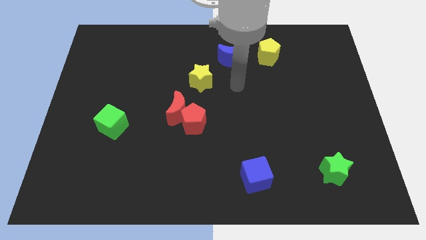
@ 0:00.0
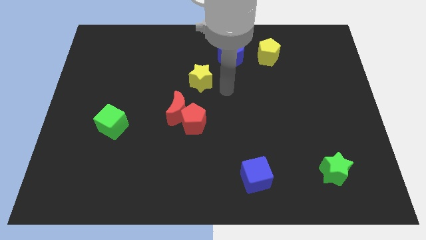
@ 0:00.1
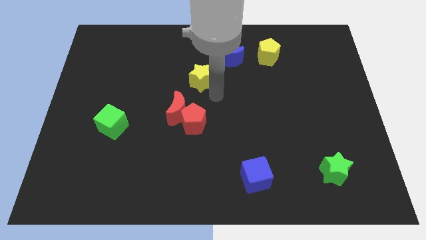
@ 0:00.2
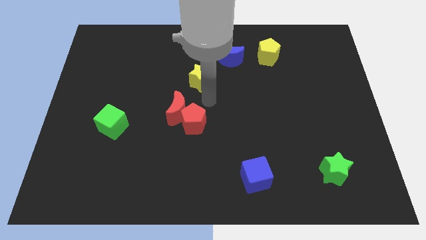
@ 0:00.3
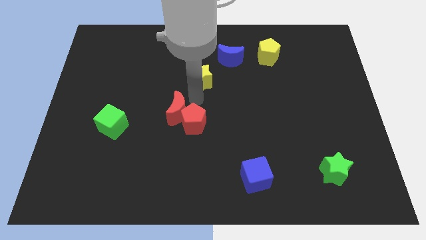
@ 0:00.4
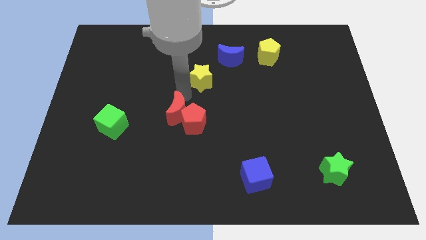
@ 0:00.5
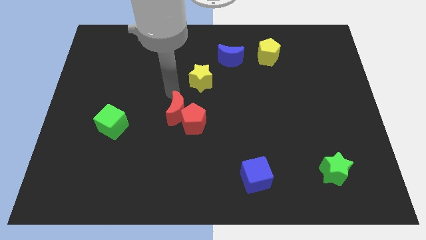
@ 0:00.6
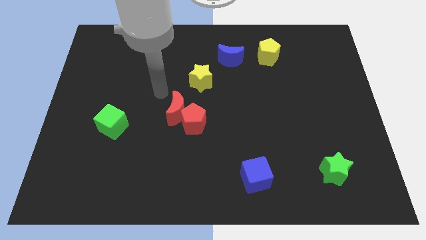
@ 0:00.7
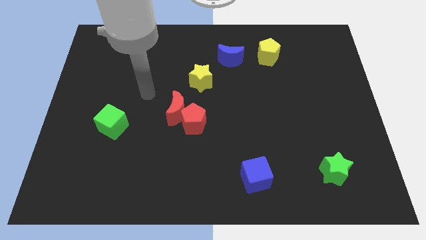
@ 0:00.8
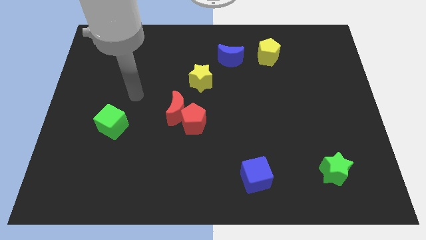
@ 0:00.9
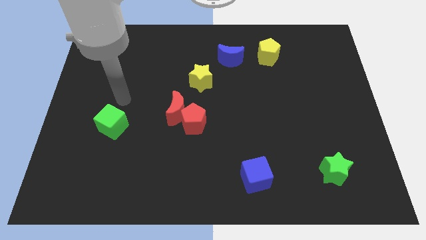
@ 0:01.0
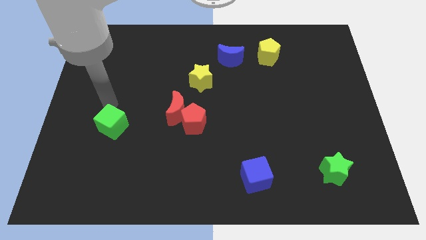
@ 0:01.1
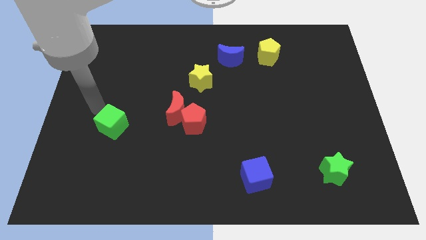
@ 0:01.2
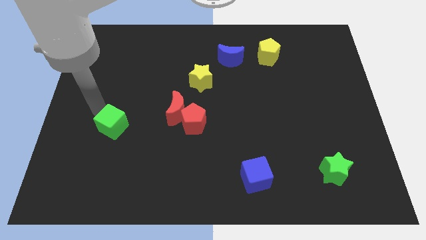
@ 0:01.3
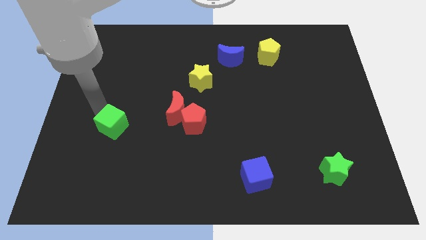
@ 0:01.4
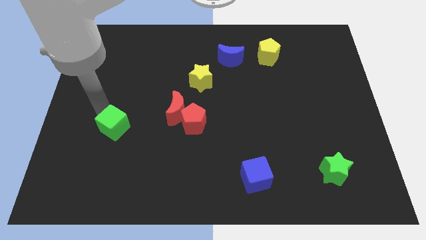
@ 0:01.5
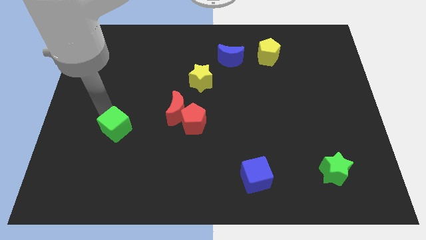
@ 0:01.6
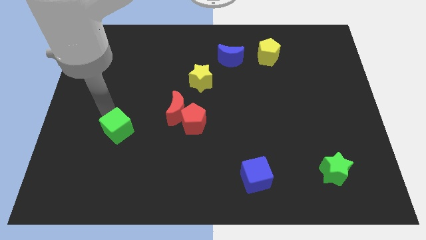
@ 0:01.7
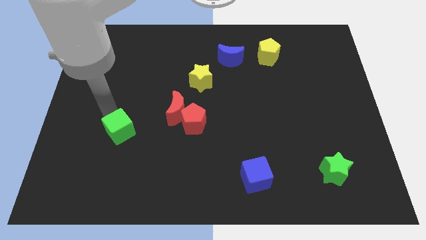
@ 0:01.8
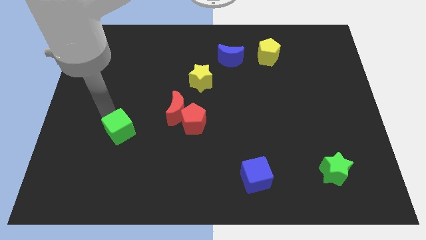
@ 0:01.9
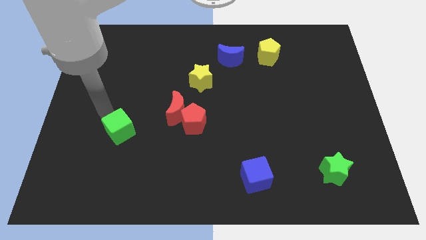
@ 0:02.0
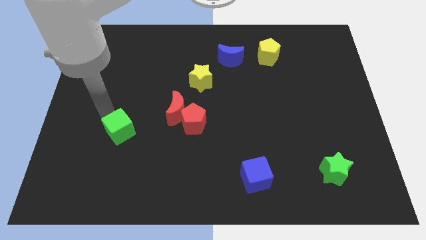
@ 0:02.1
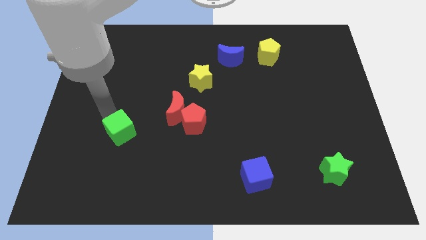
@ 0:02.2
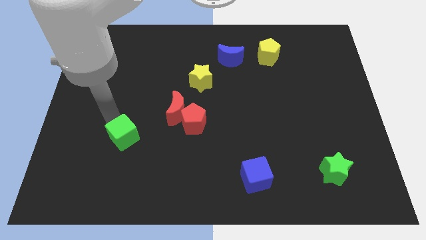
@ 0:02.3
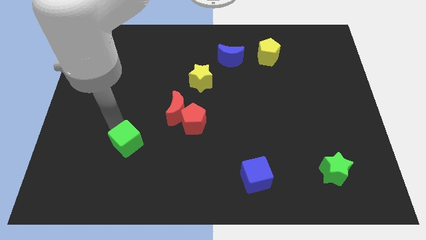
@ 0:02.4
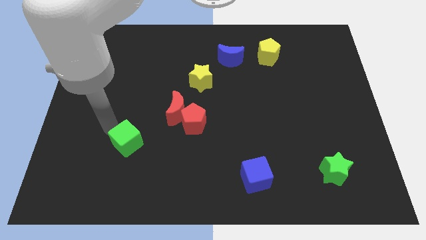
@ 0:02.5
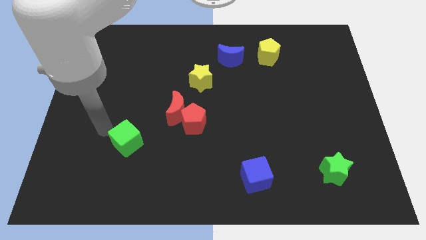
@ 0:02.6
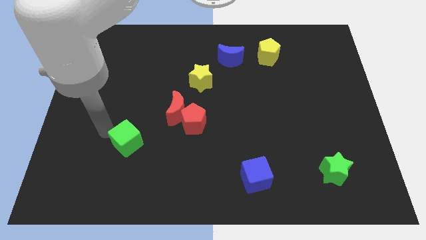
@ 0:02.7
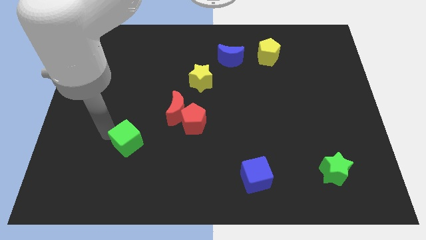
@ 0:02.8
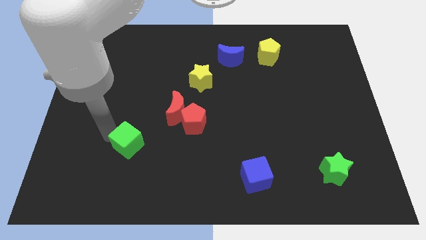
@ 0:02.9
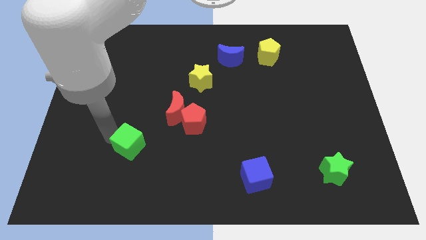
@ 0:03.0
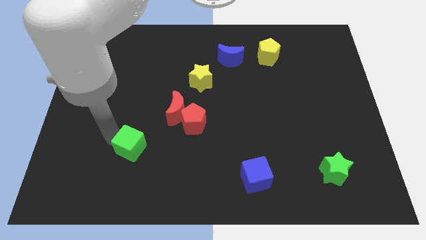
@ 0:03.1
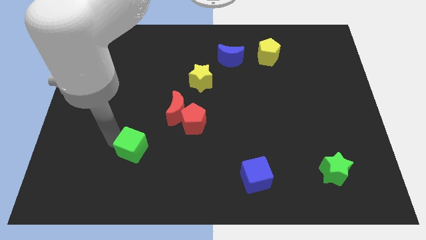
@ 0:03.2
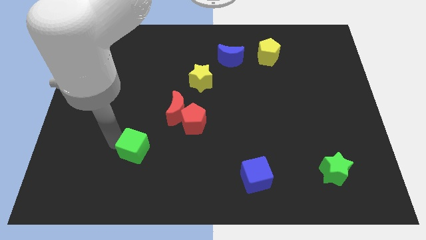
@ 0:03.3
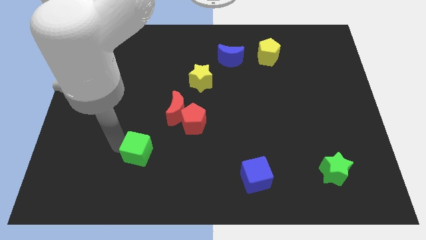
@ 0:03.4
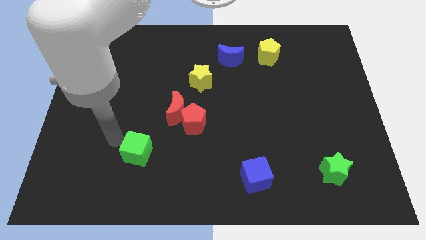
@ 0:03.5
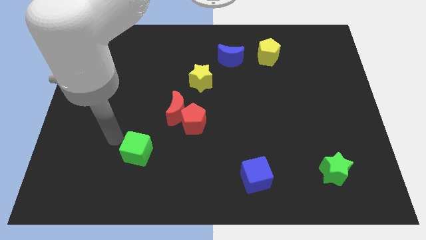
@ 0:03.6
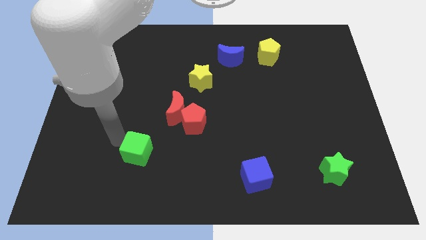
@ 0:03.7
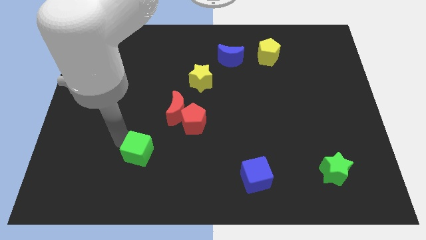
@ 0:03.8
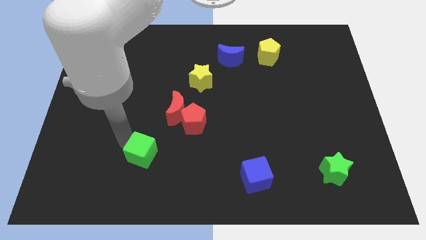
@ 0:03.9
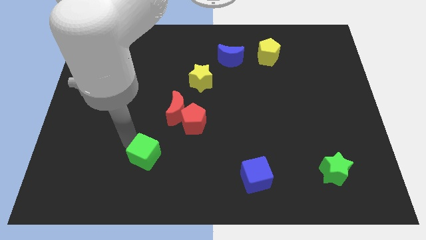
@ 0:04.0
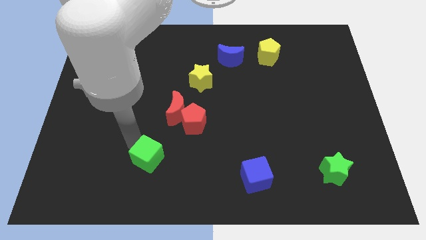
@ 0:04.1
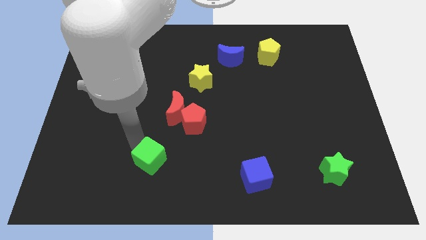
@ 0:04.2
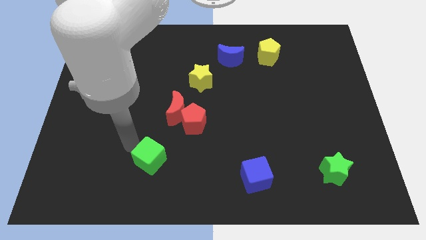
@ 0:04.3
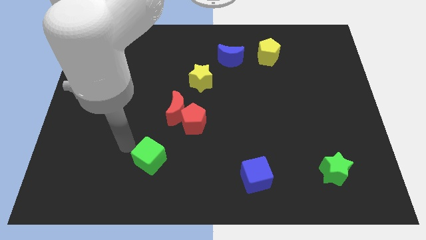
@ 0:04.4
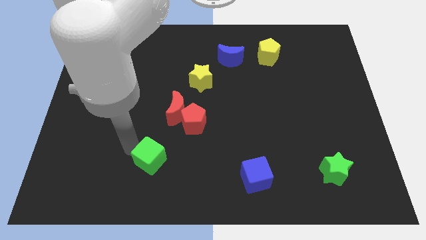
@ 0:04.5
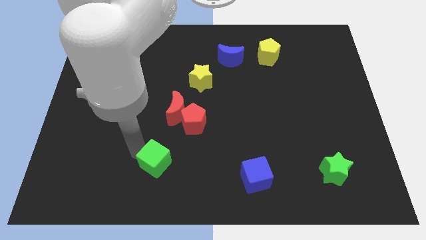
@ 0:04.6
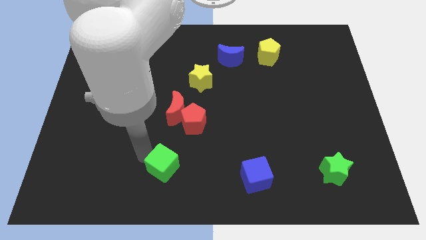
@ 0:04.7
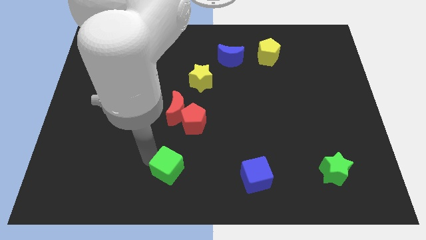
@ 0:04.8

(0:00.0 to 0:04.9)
move the green cube to the bottom side

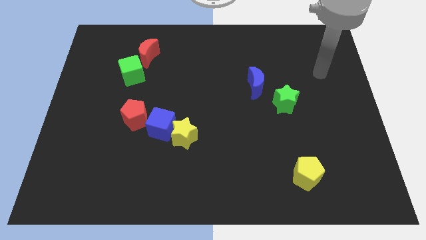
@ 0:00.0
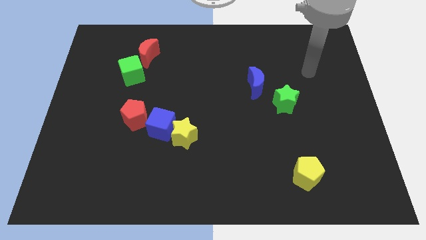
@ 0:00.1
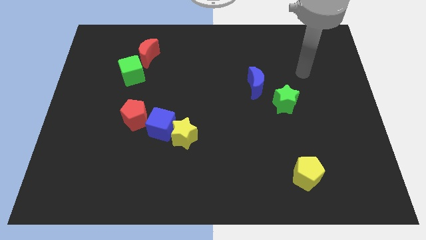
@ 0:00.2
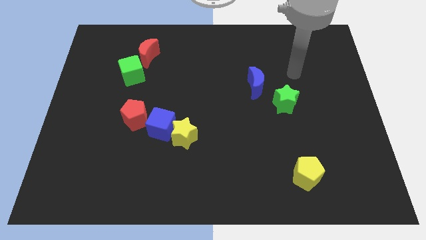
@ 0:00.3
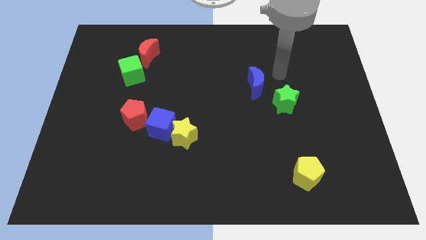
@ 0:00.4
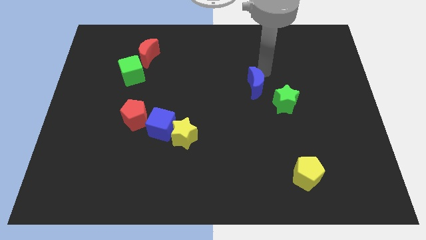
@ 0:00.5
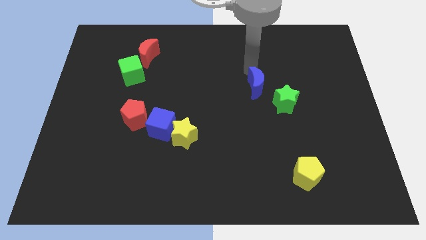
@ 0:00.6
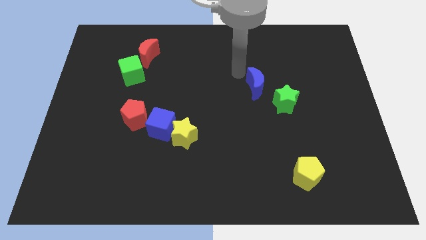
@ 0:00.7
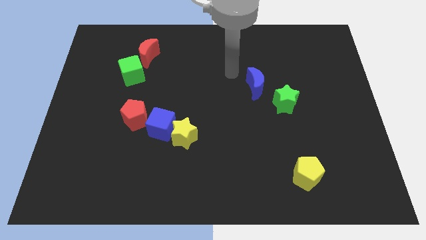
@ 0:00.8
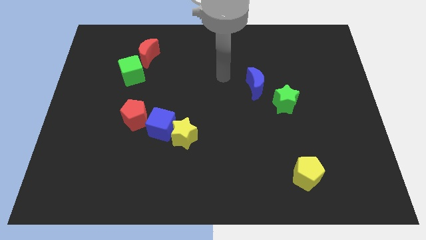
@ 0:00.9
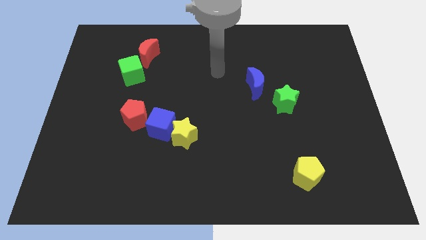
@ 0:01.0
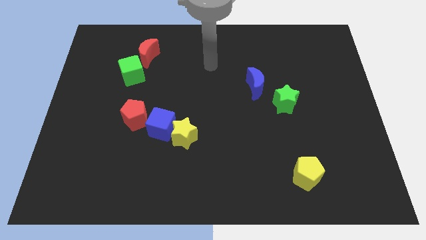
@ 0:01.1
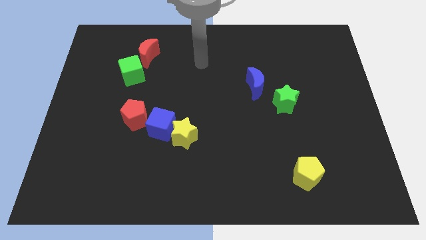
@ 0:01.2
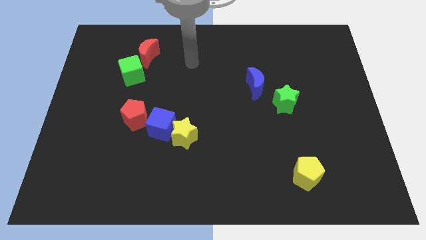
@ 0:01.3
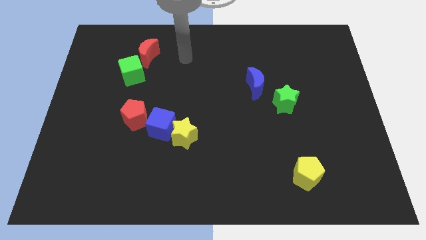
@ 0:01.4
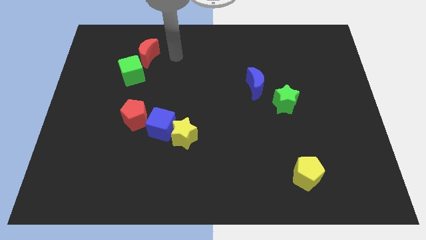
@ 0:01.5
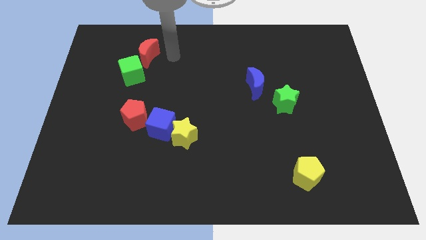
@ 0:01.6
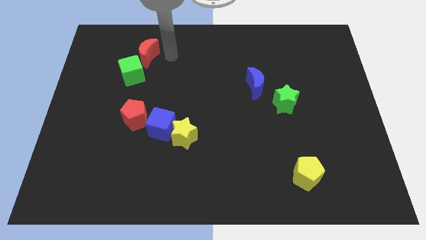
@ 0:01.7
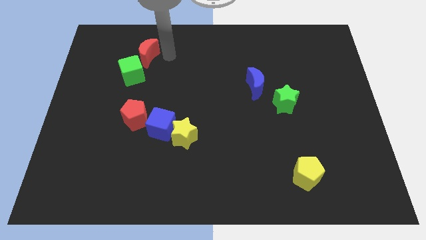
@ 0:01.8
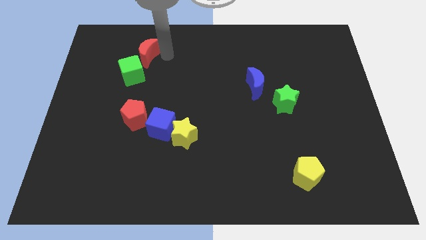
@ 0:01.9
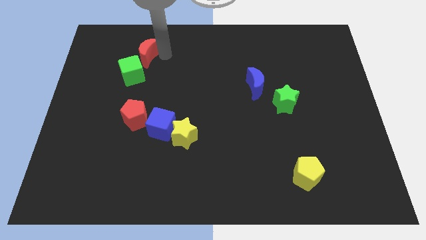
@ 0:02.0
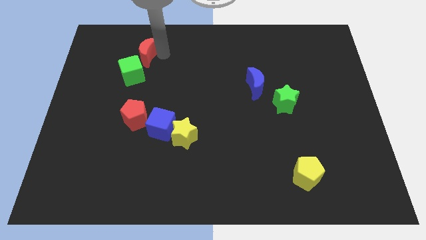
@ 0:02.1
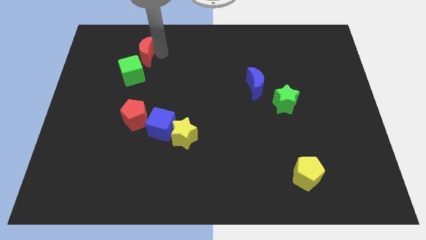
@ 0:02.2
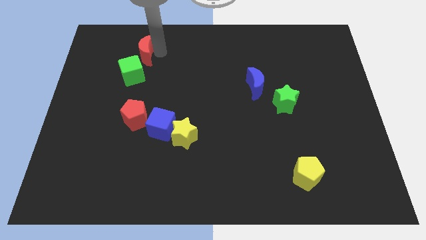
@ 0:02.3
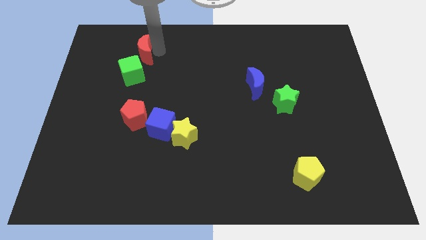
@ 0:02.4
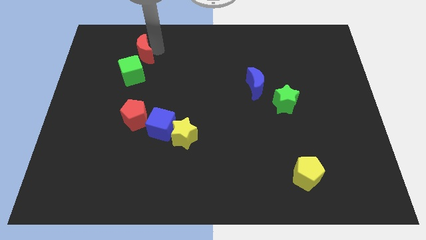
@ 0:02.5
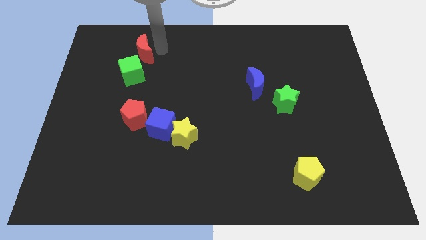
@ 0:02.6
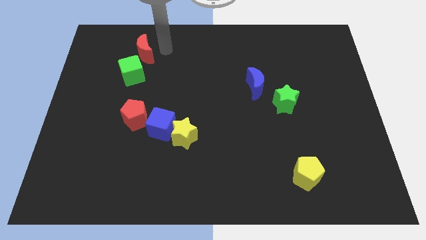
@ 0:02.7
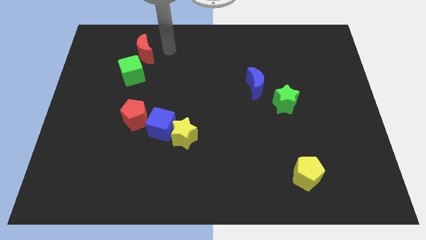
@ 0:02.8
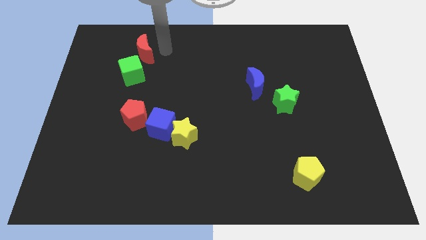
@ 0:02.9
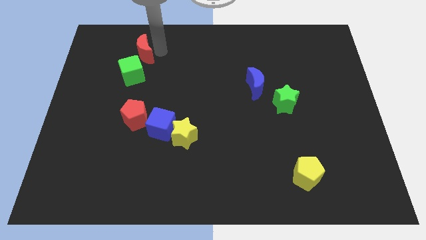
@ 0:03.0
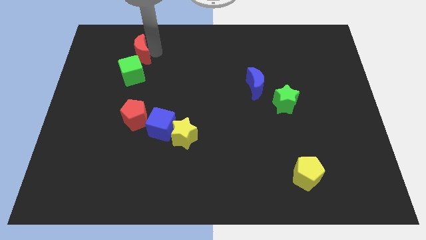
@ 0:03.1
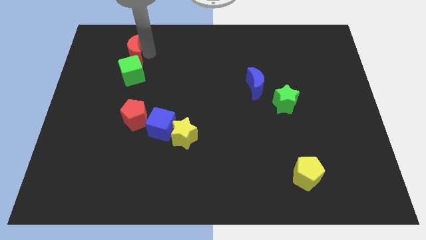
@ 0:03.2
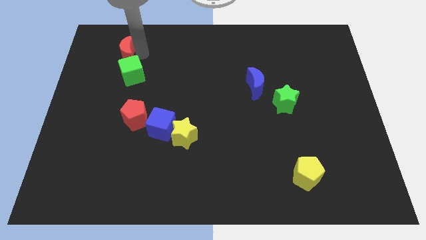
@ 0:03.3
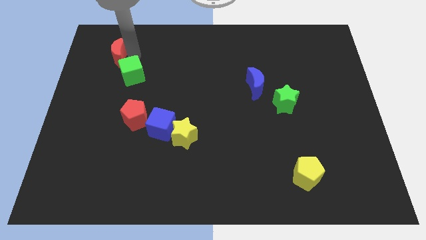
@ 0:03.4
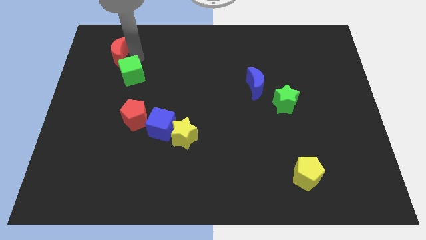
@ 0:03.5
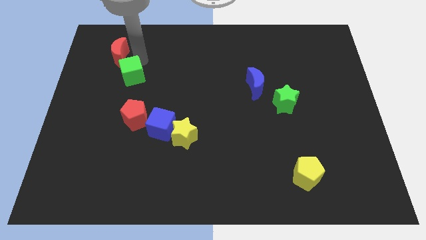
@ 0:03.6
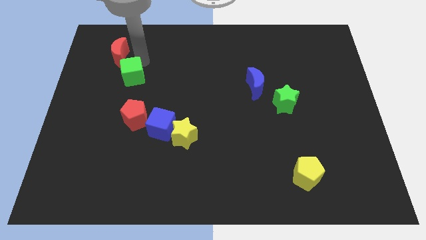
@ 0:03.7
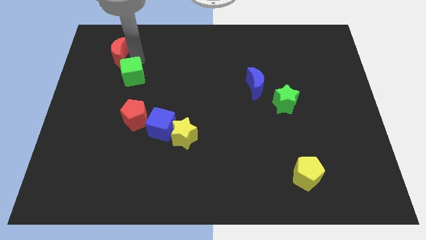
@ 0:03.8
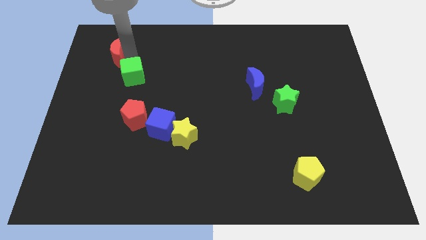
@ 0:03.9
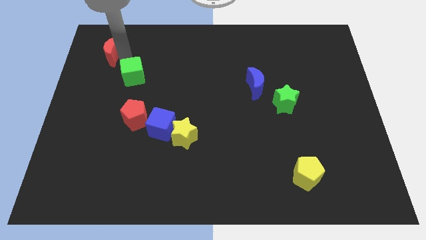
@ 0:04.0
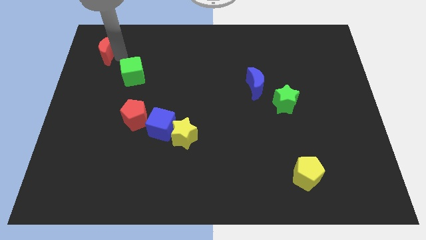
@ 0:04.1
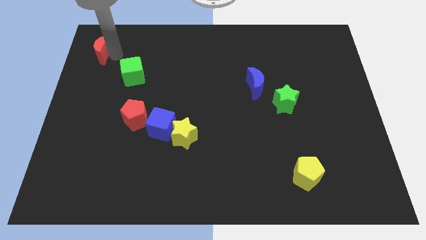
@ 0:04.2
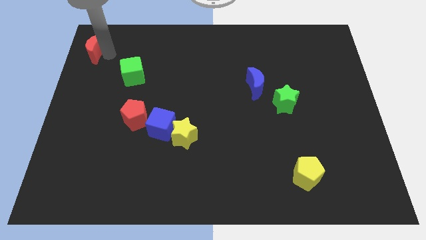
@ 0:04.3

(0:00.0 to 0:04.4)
slide the red moon to the top left of the board
